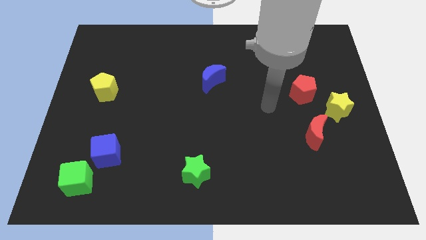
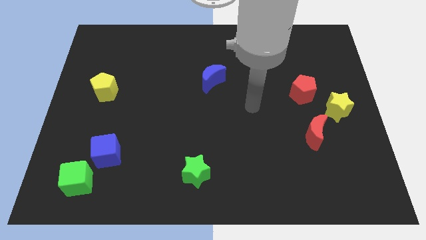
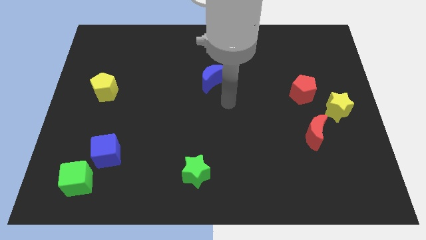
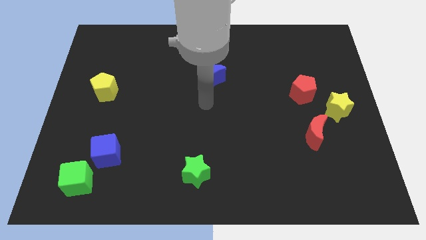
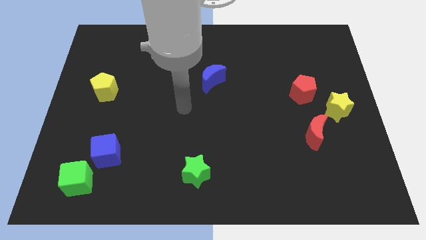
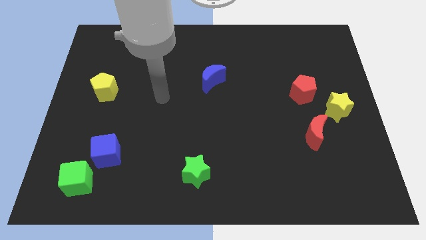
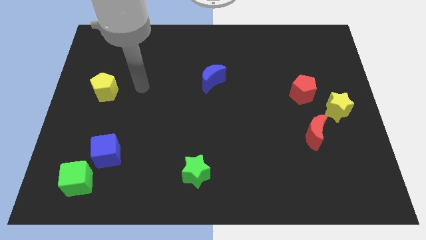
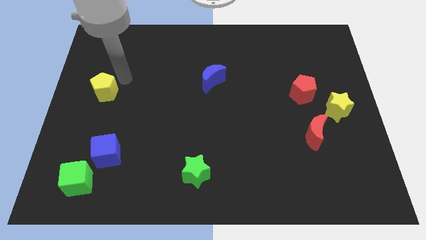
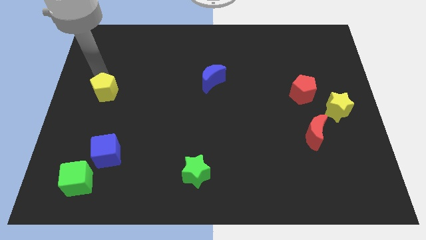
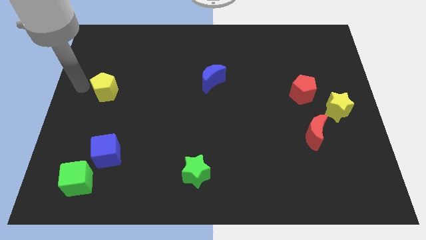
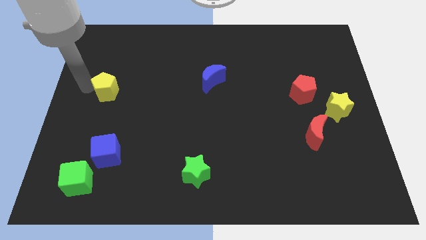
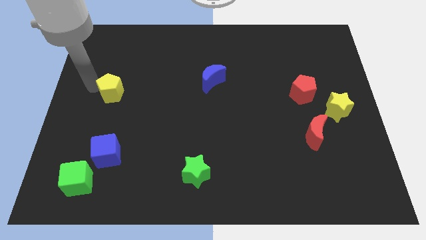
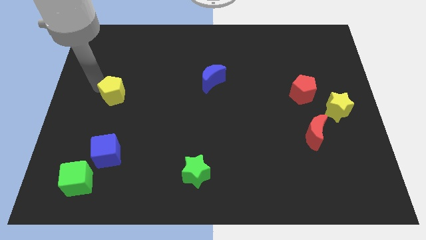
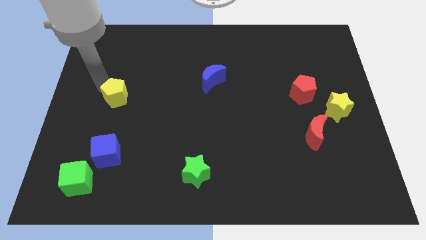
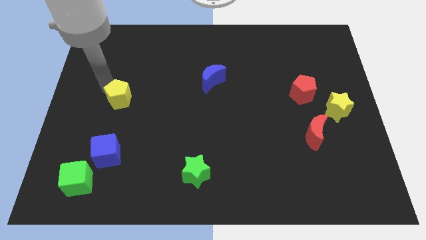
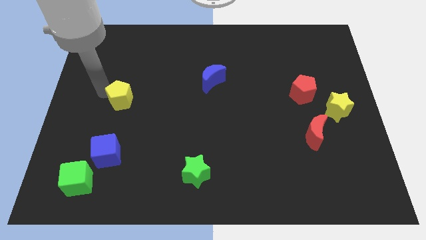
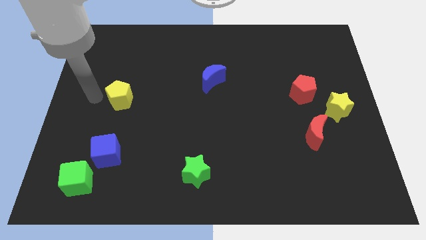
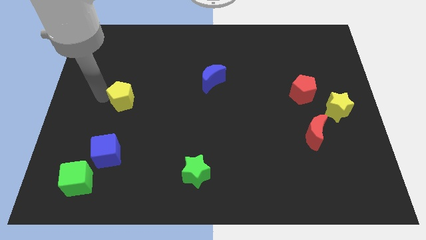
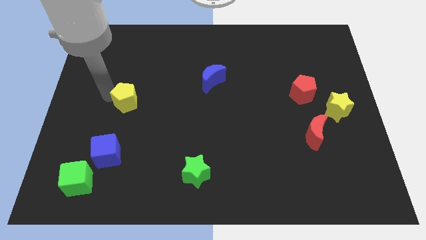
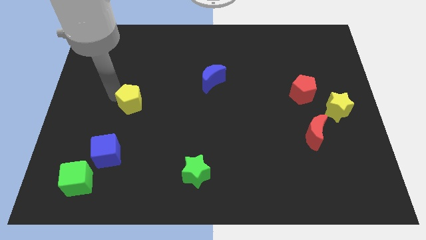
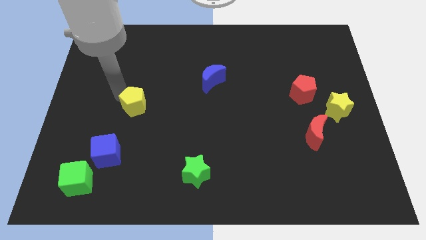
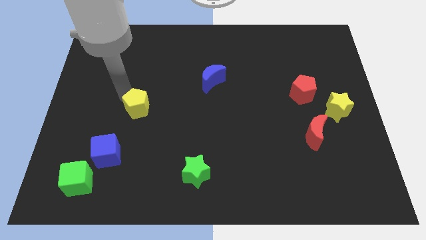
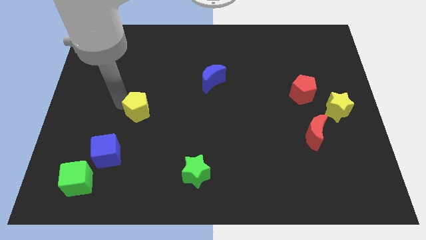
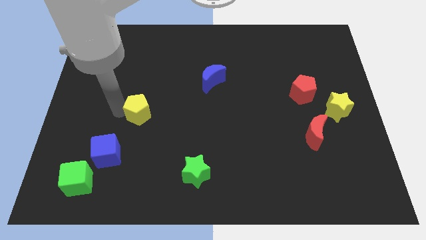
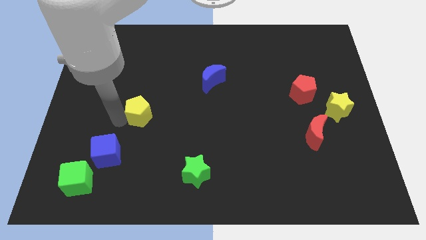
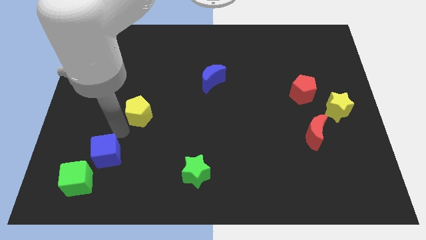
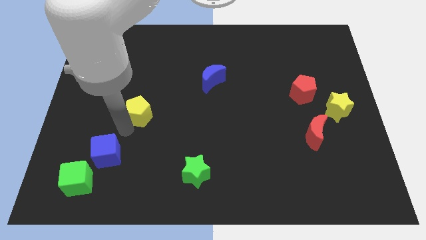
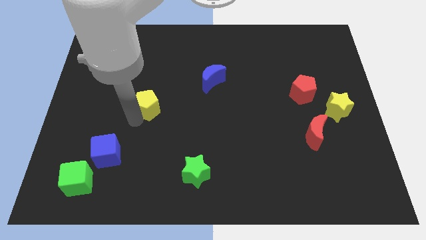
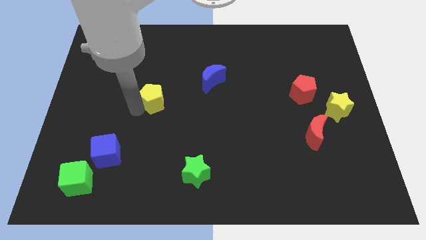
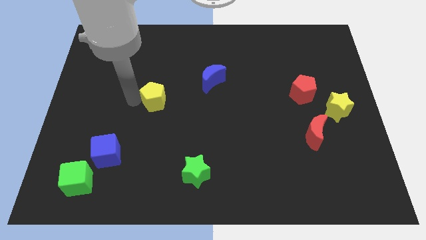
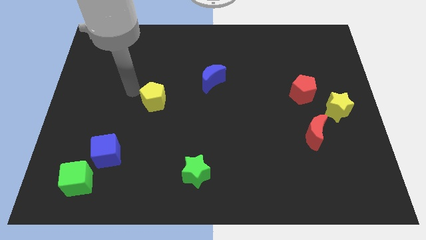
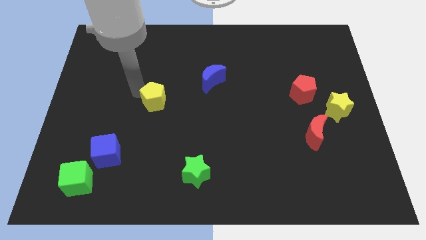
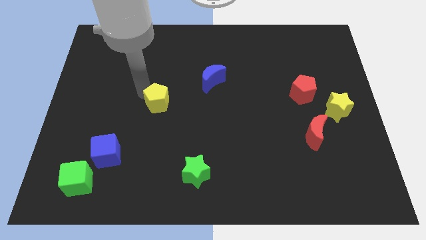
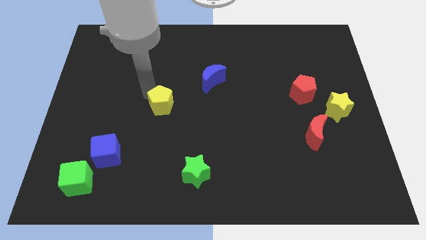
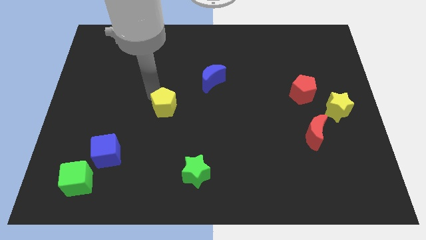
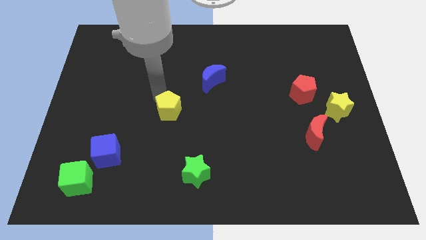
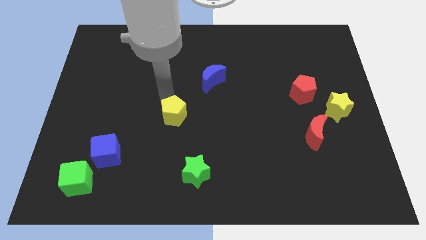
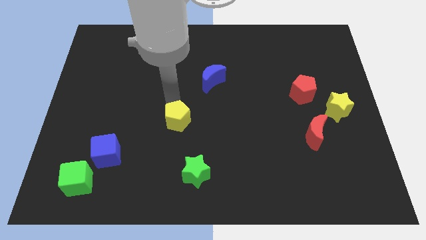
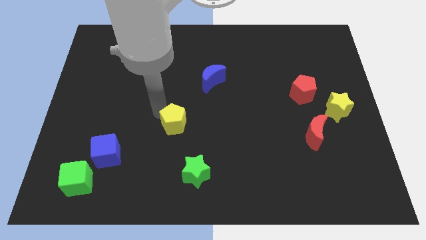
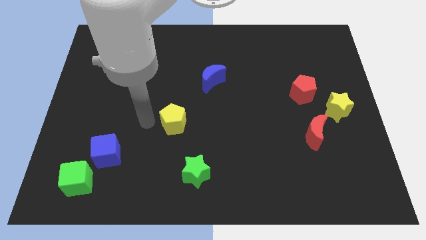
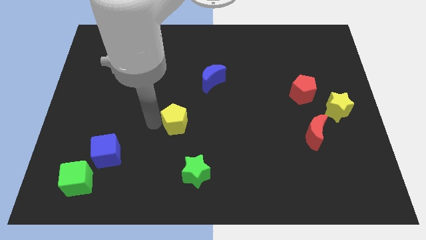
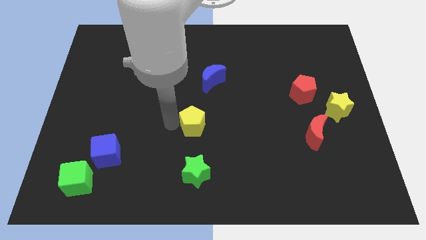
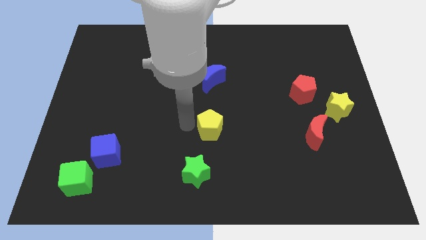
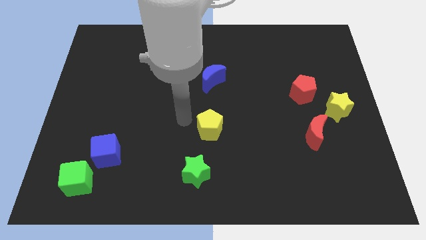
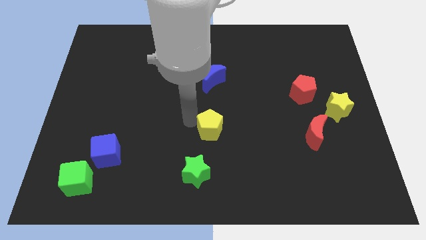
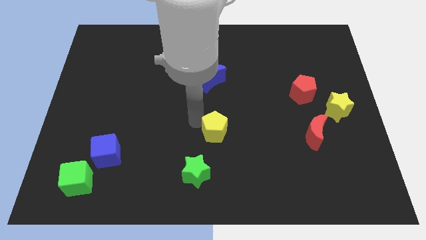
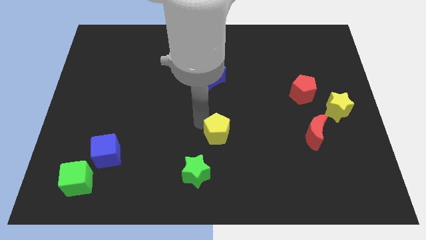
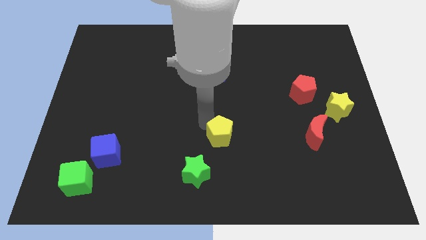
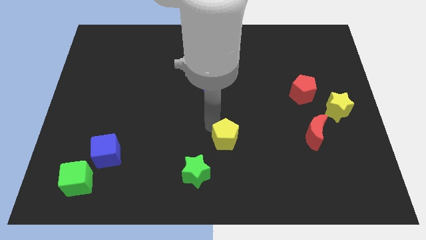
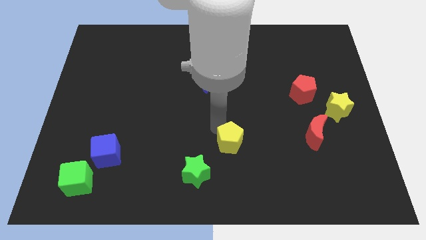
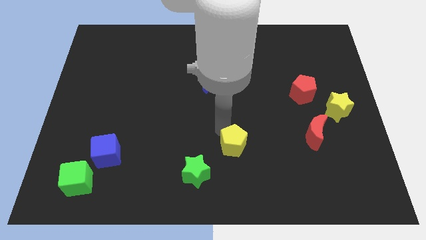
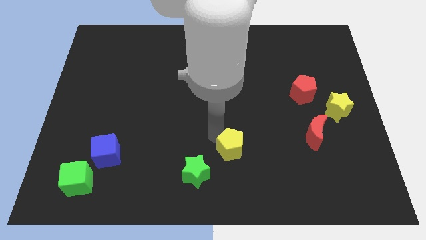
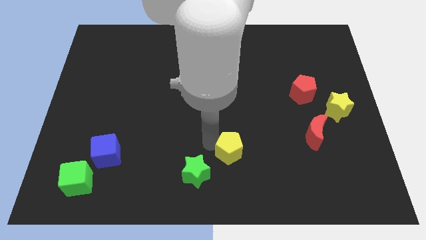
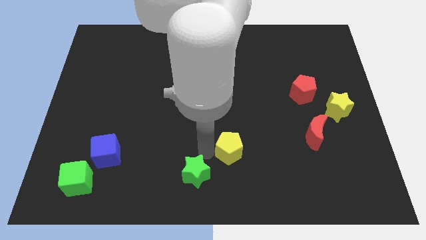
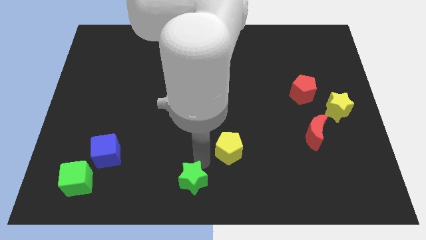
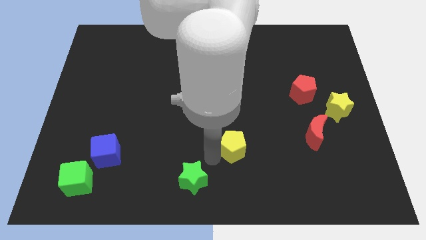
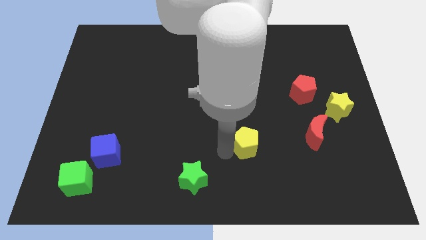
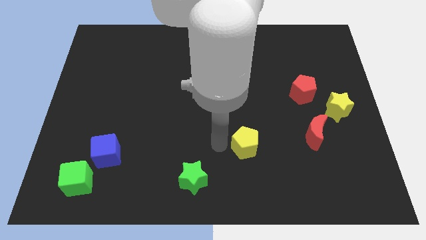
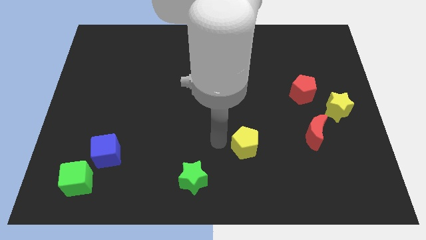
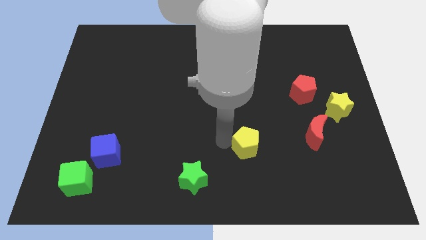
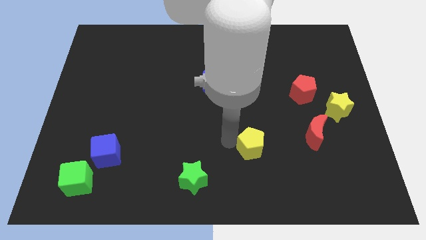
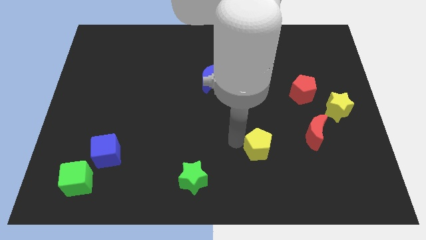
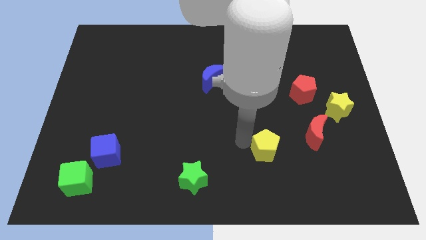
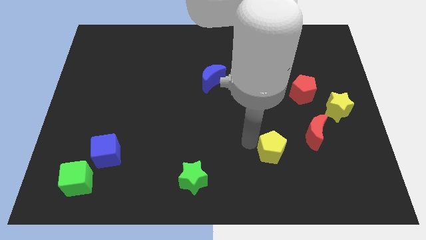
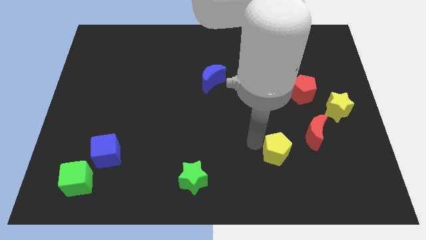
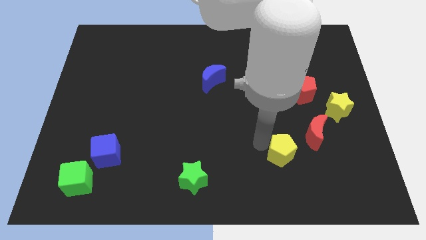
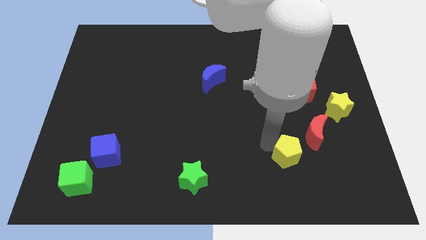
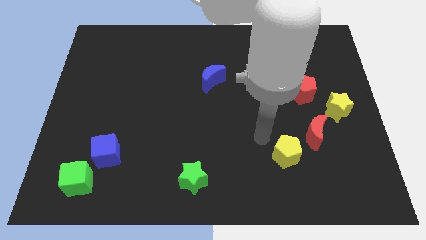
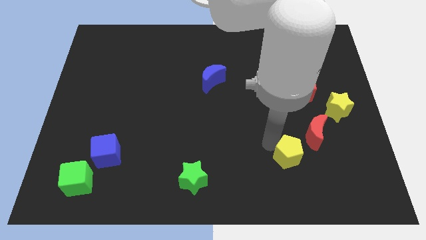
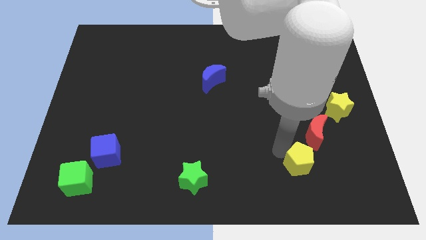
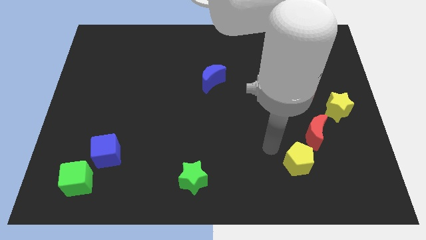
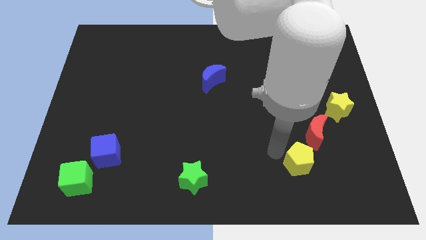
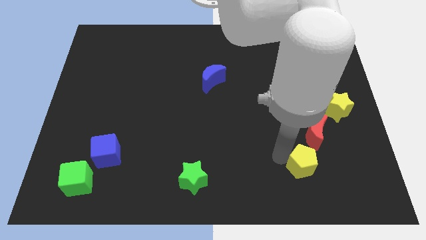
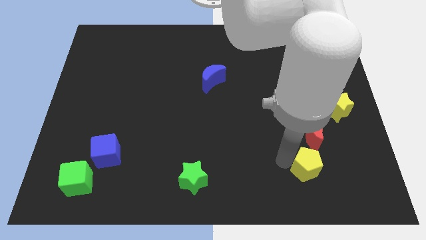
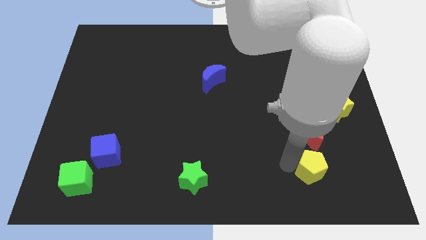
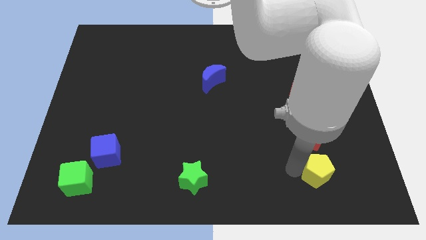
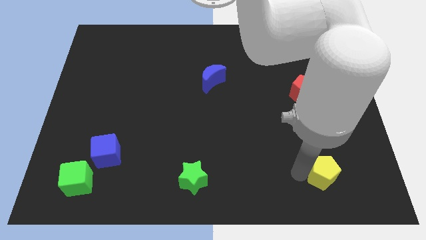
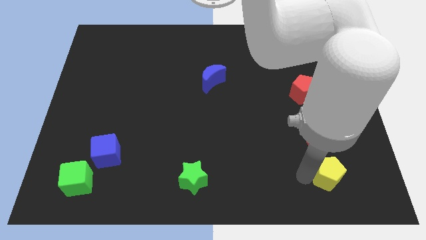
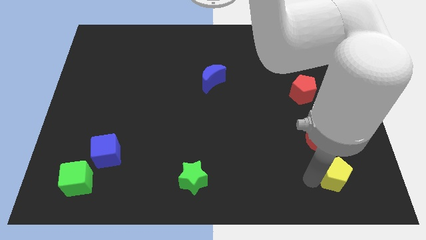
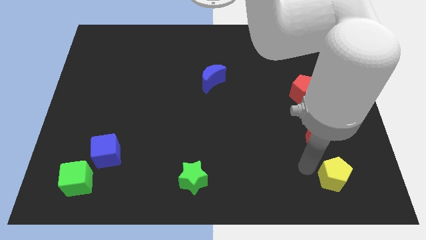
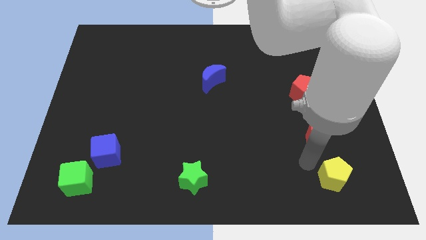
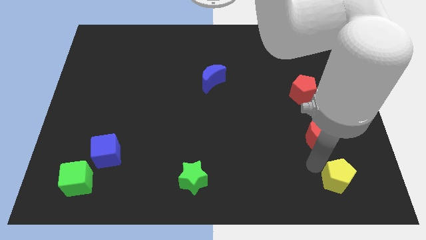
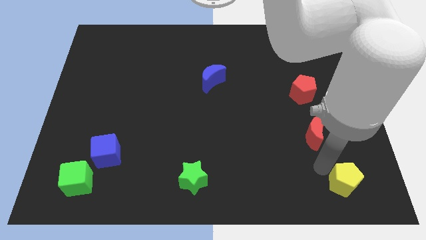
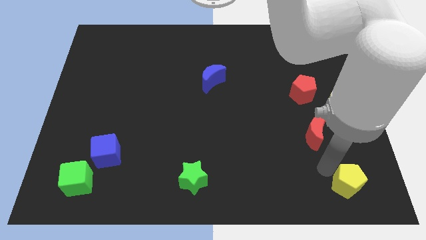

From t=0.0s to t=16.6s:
push the yellow pentagon to the bottom right
